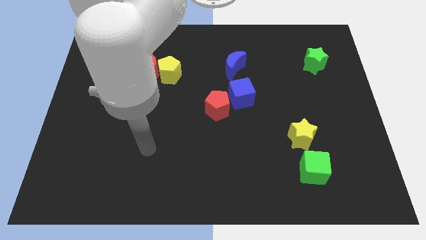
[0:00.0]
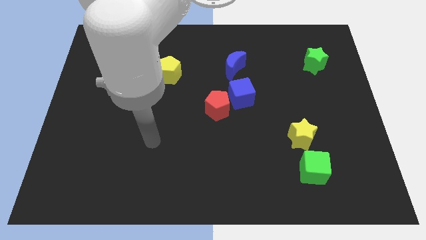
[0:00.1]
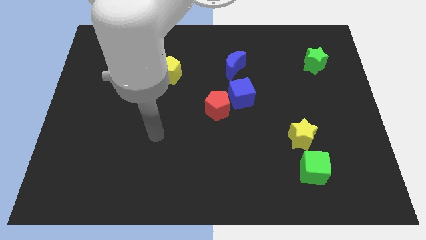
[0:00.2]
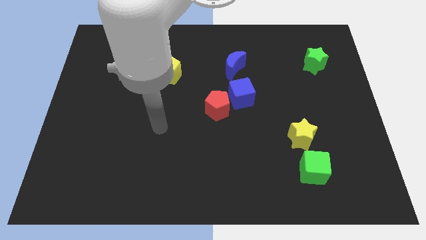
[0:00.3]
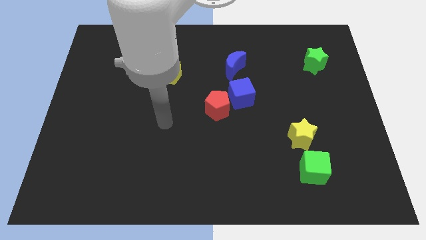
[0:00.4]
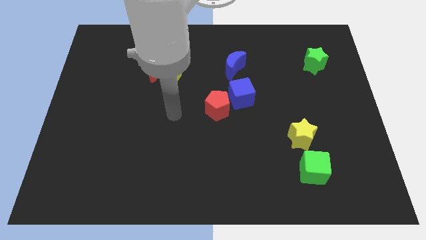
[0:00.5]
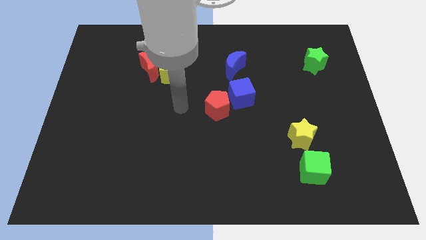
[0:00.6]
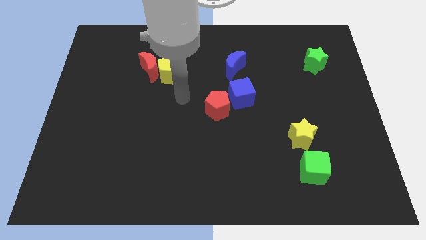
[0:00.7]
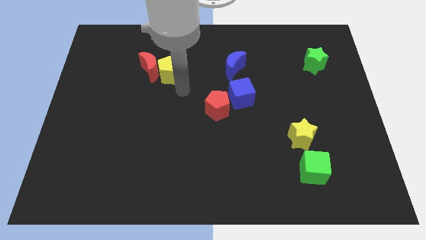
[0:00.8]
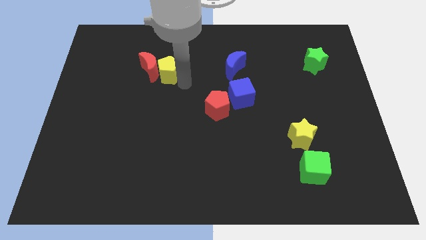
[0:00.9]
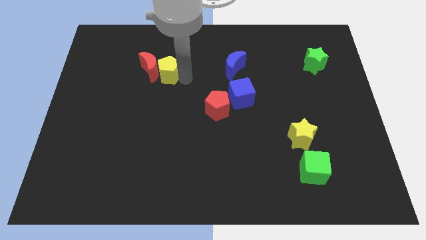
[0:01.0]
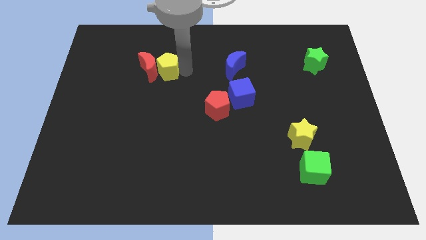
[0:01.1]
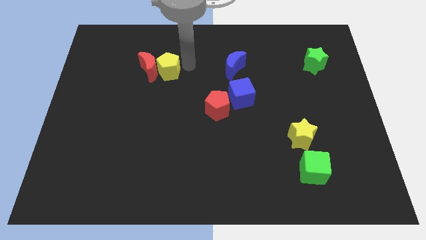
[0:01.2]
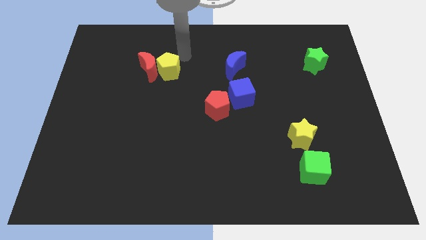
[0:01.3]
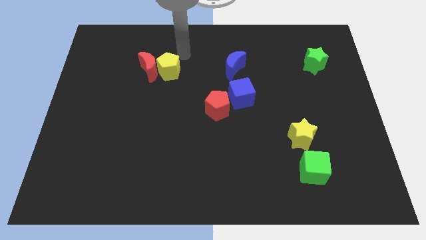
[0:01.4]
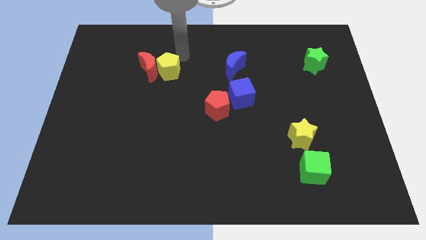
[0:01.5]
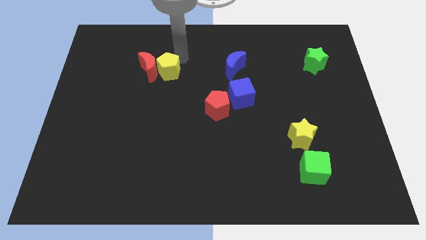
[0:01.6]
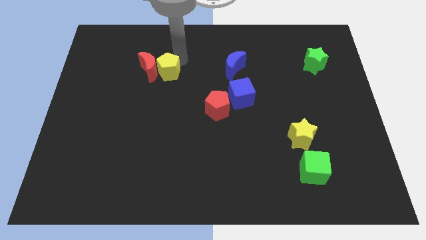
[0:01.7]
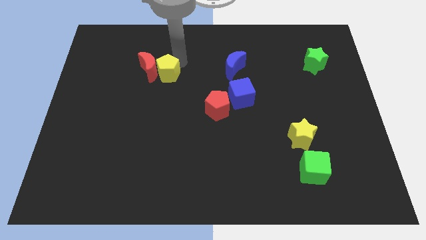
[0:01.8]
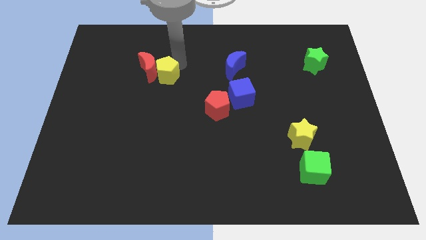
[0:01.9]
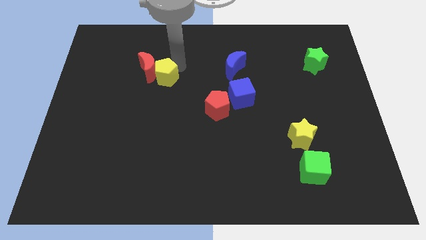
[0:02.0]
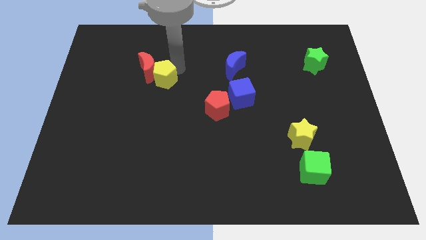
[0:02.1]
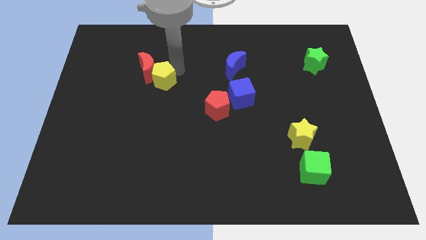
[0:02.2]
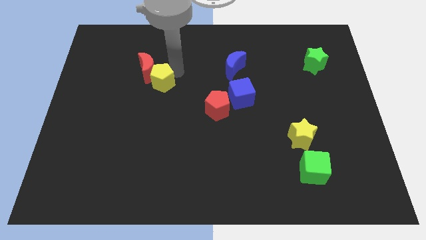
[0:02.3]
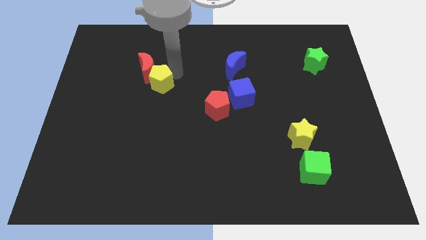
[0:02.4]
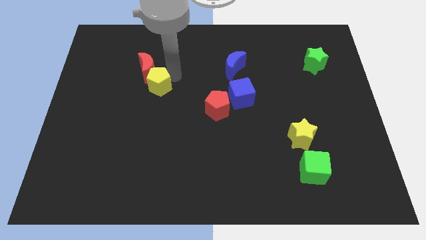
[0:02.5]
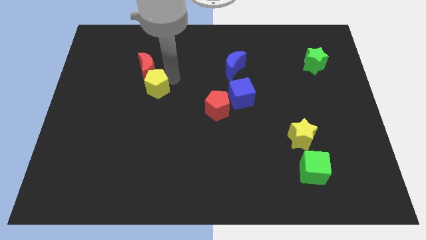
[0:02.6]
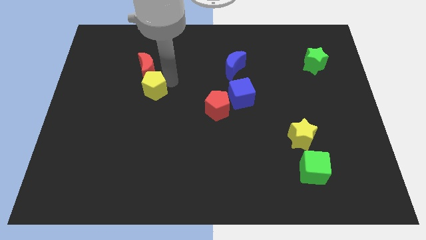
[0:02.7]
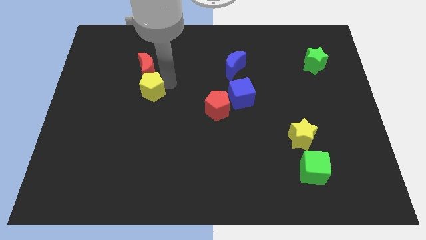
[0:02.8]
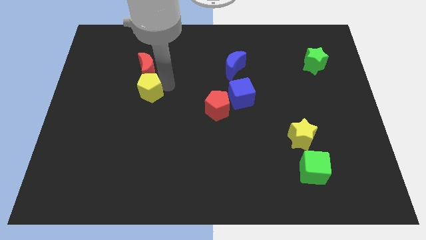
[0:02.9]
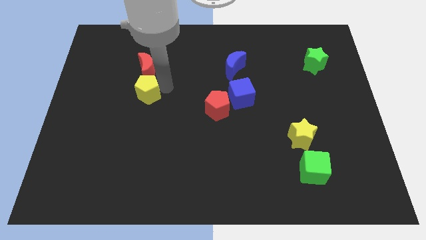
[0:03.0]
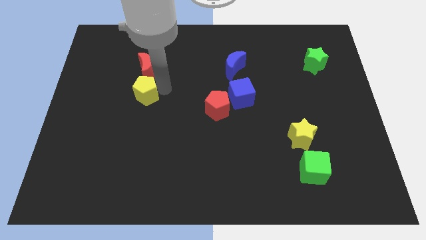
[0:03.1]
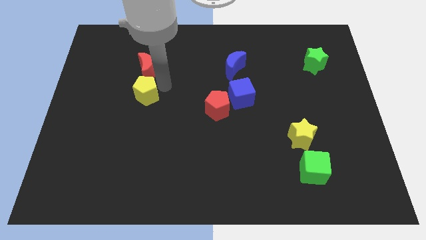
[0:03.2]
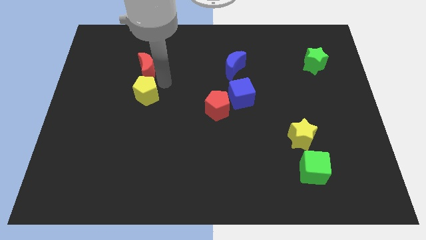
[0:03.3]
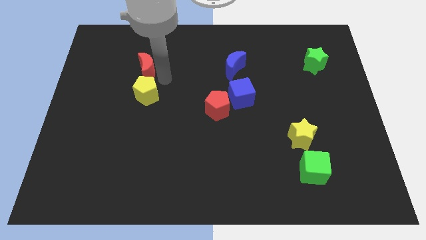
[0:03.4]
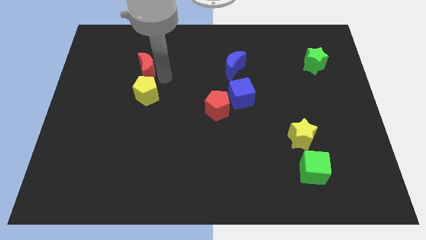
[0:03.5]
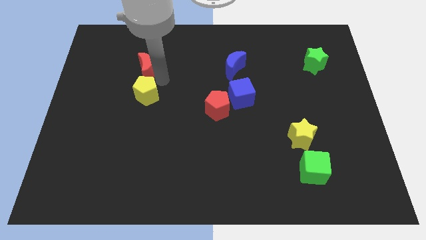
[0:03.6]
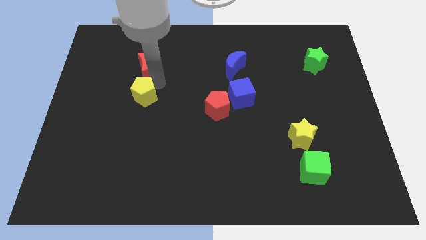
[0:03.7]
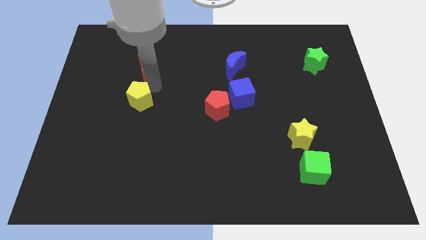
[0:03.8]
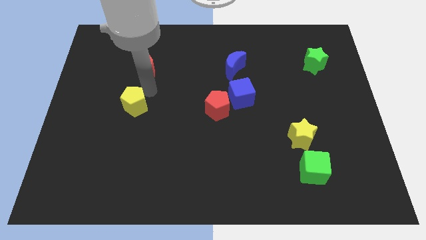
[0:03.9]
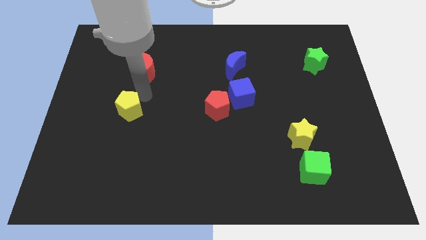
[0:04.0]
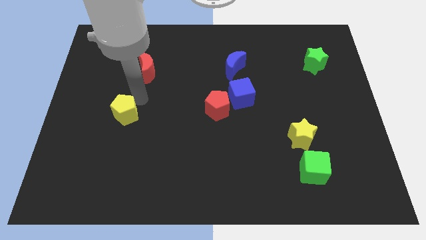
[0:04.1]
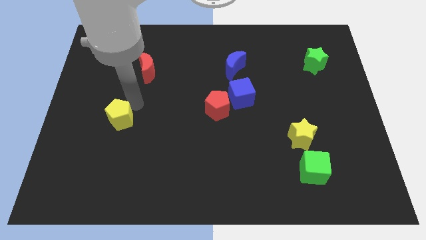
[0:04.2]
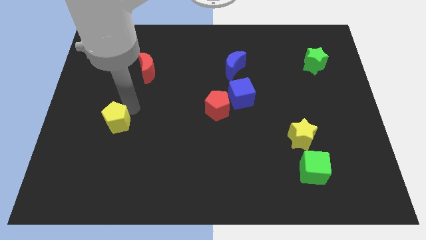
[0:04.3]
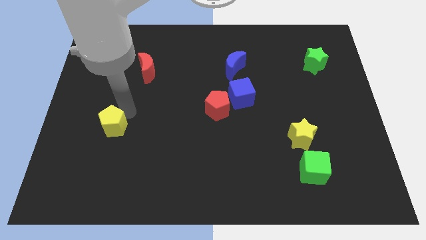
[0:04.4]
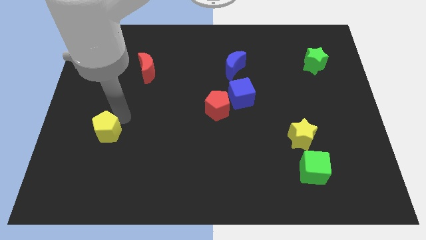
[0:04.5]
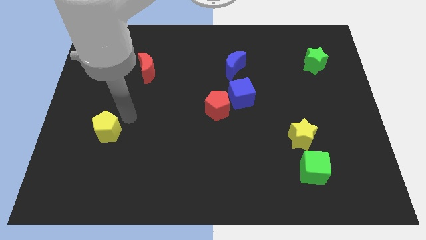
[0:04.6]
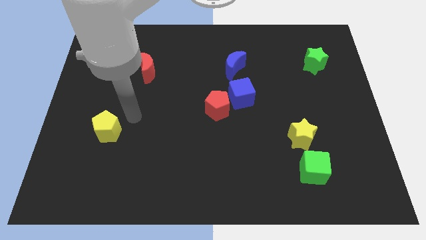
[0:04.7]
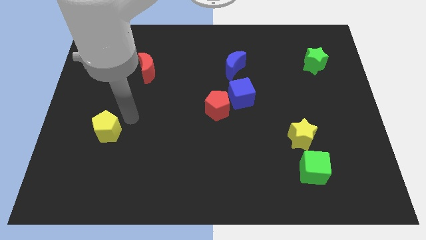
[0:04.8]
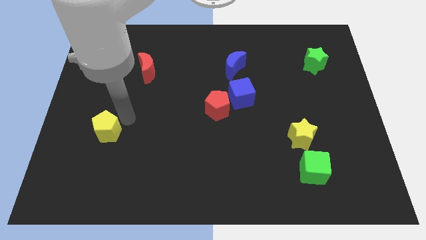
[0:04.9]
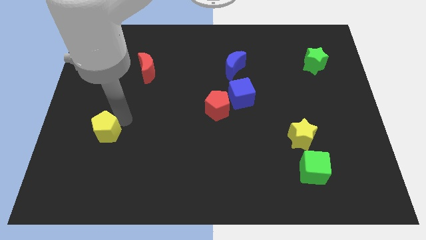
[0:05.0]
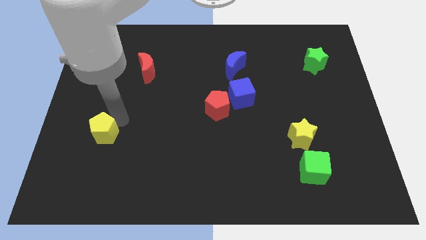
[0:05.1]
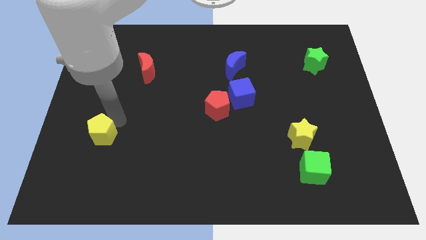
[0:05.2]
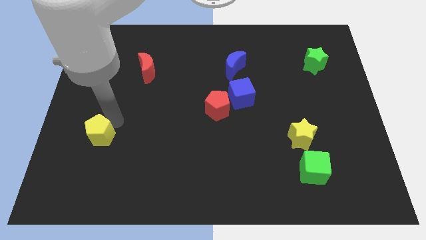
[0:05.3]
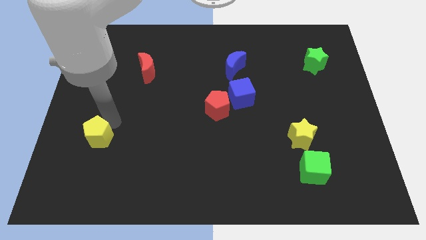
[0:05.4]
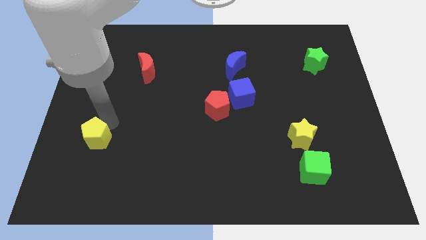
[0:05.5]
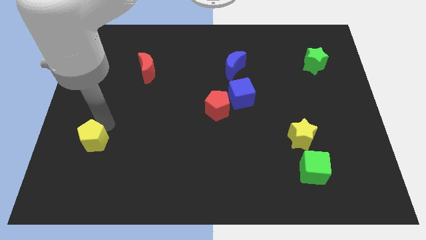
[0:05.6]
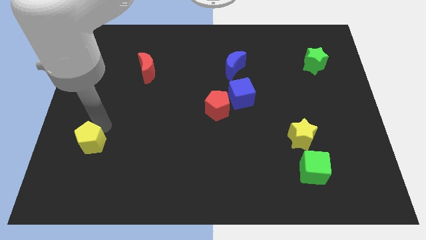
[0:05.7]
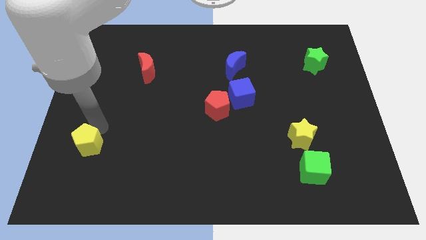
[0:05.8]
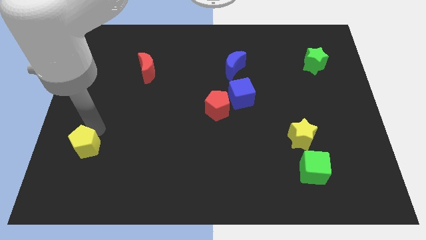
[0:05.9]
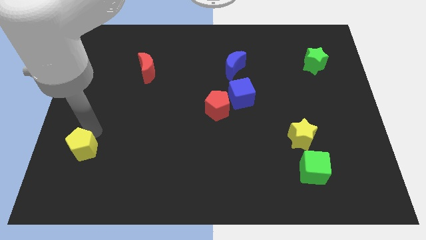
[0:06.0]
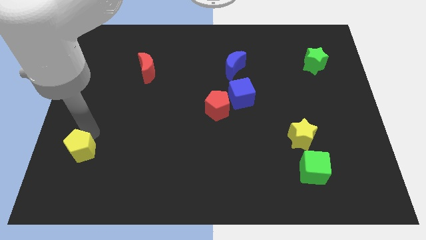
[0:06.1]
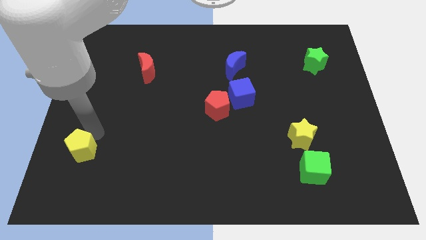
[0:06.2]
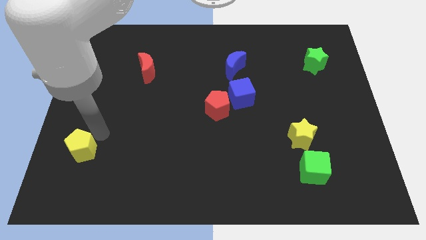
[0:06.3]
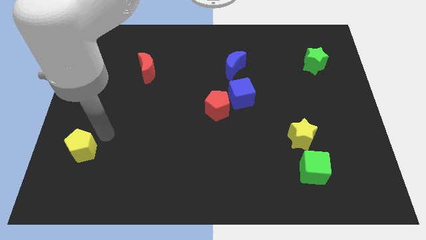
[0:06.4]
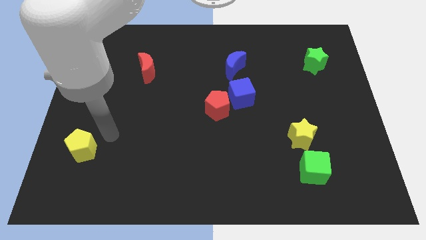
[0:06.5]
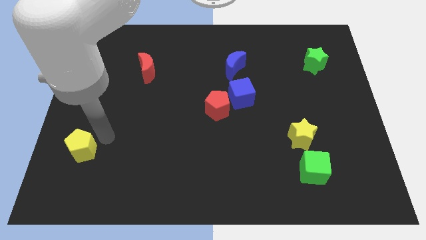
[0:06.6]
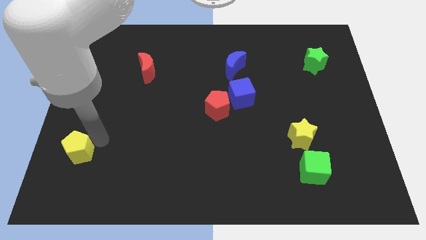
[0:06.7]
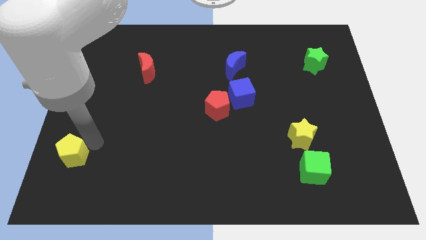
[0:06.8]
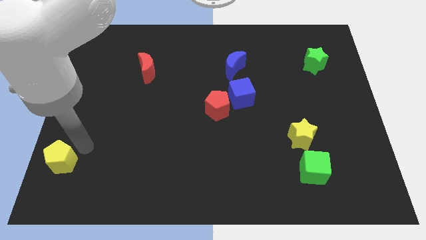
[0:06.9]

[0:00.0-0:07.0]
move the yellow pentagon to the bottom left of the board
